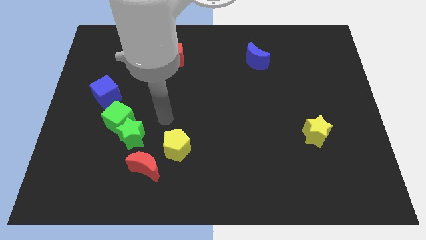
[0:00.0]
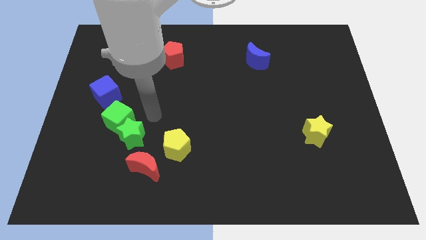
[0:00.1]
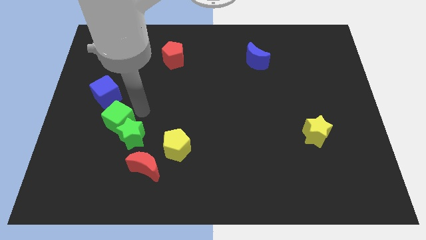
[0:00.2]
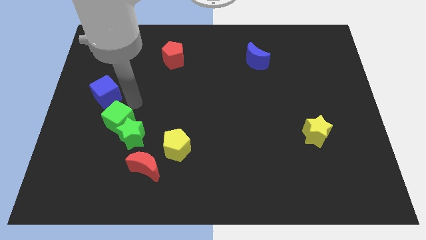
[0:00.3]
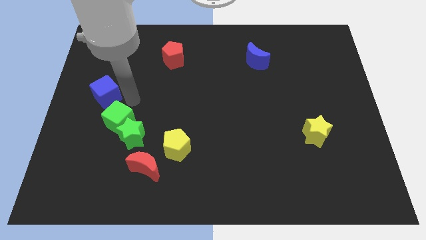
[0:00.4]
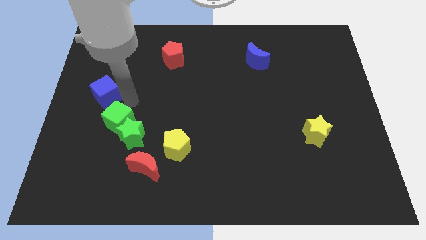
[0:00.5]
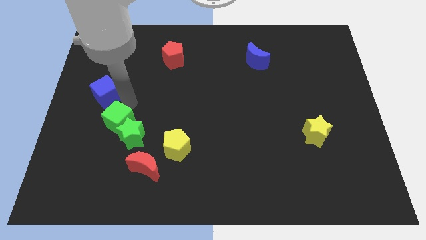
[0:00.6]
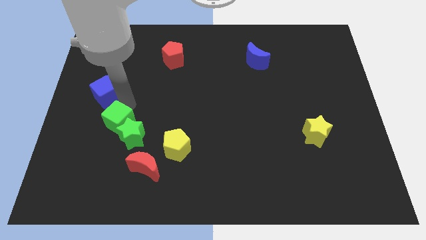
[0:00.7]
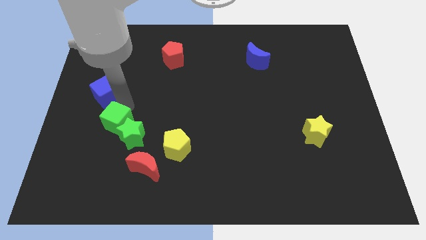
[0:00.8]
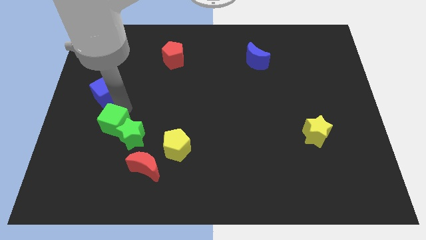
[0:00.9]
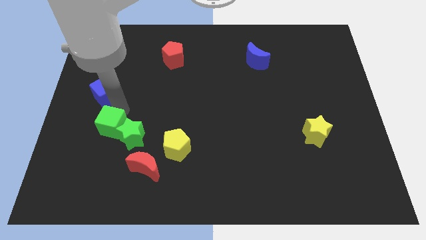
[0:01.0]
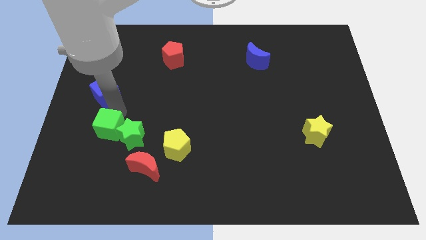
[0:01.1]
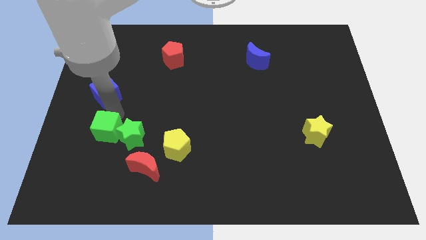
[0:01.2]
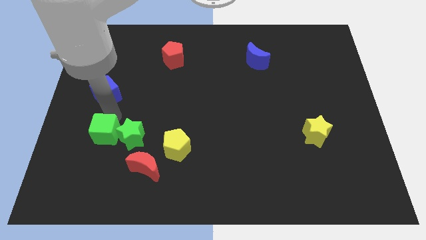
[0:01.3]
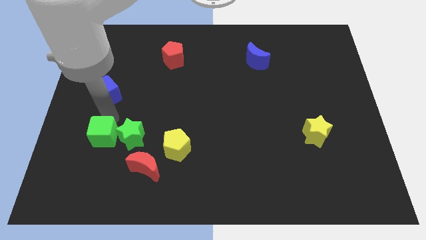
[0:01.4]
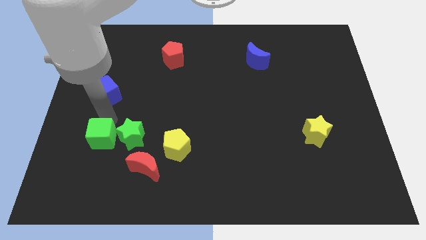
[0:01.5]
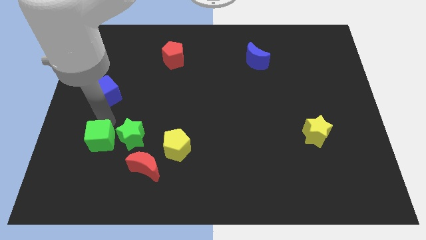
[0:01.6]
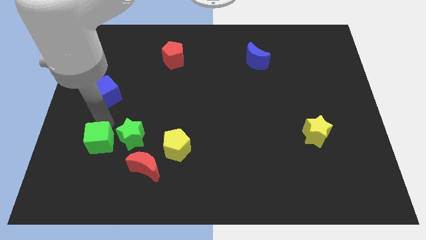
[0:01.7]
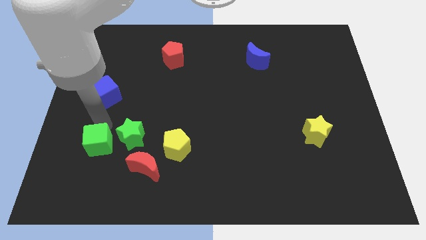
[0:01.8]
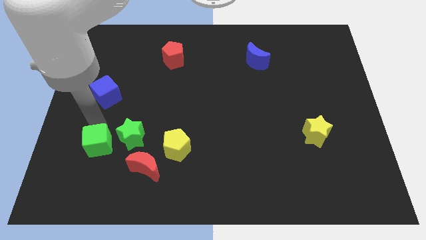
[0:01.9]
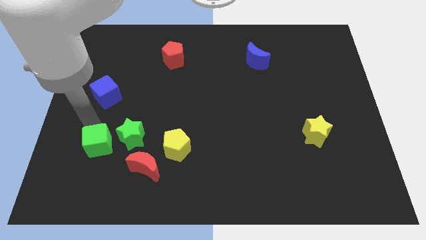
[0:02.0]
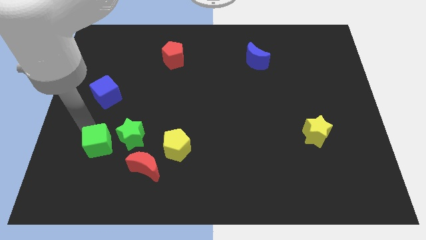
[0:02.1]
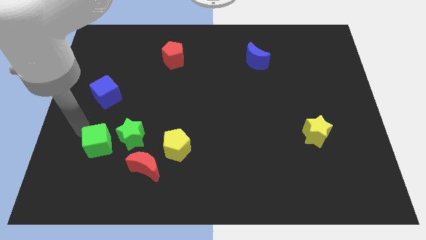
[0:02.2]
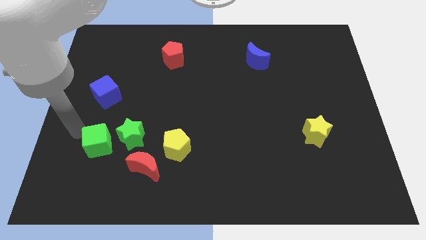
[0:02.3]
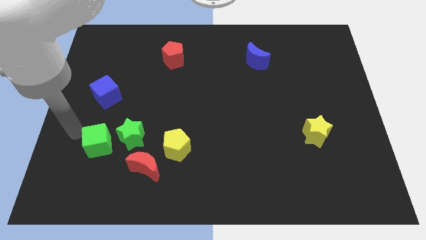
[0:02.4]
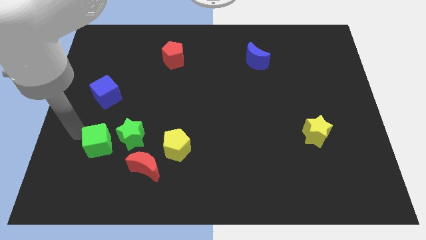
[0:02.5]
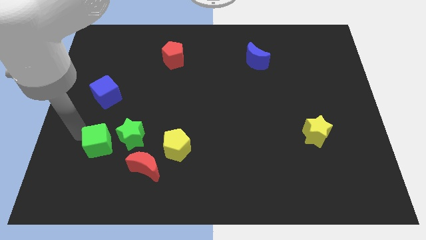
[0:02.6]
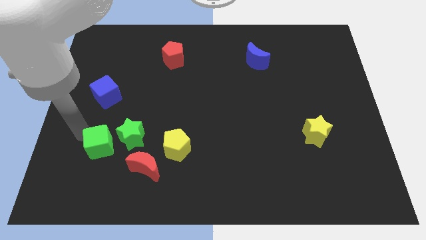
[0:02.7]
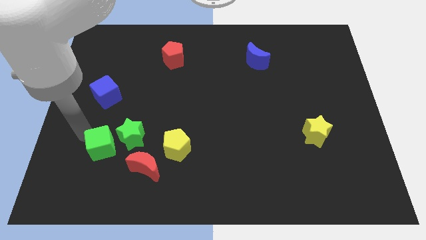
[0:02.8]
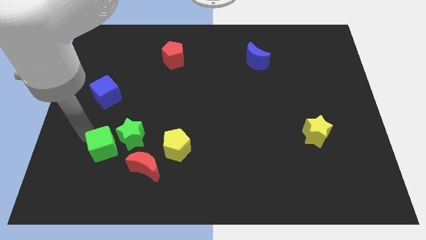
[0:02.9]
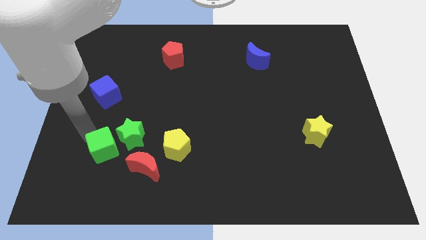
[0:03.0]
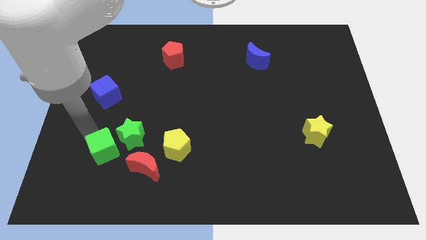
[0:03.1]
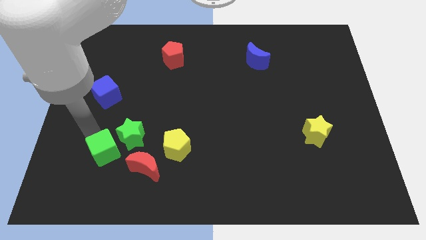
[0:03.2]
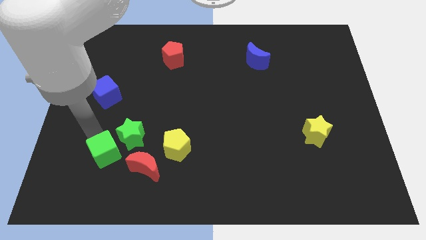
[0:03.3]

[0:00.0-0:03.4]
move the green cube away from the green star and blue cube

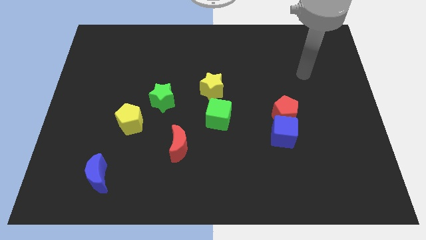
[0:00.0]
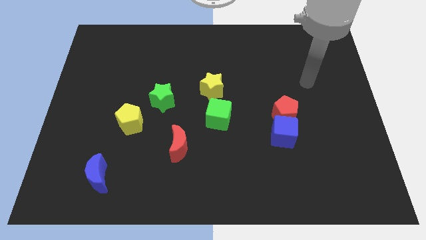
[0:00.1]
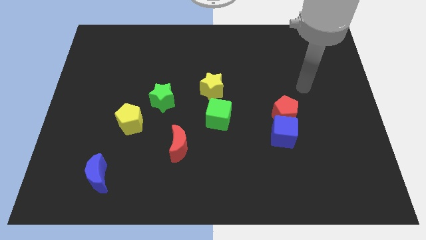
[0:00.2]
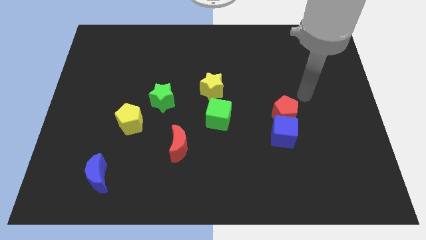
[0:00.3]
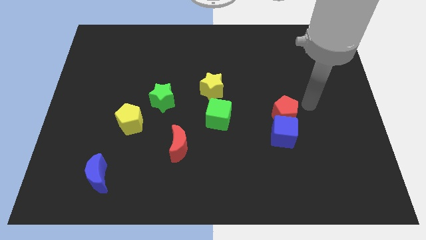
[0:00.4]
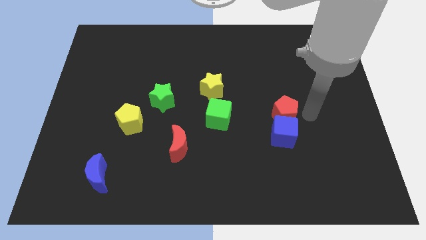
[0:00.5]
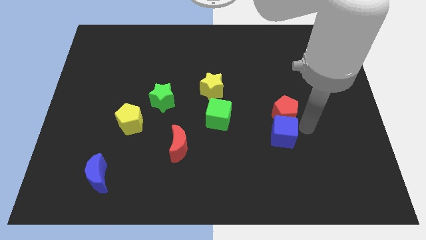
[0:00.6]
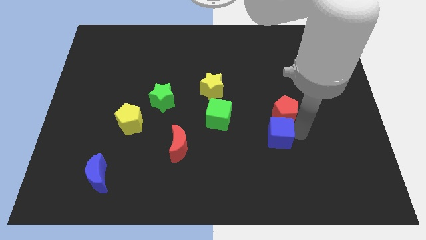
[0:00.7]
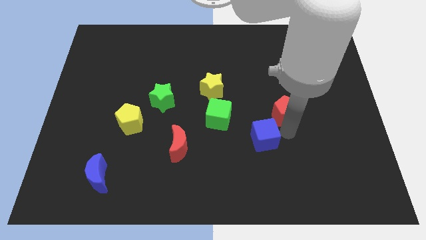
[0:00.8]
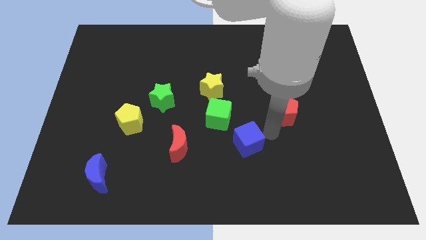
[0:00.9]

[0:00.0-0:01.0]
move the red pentagon away from the blue cube

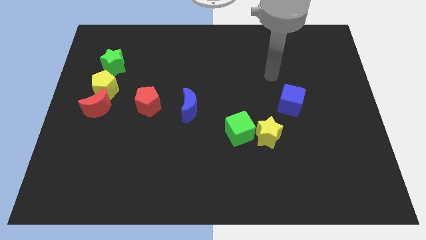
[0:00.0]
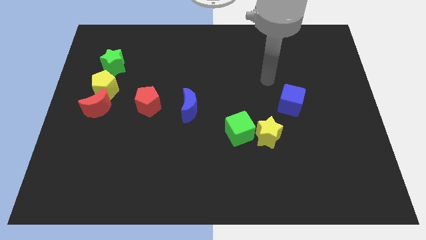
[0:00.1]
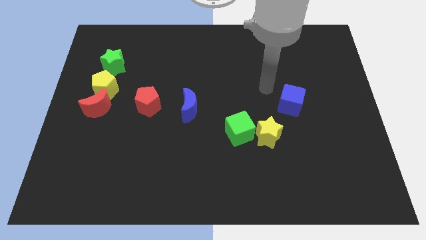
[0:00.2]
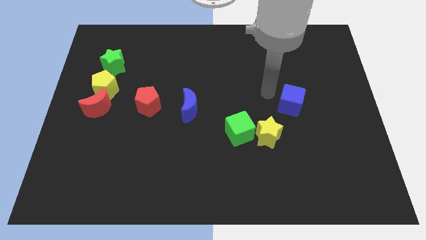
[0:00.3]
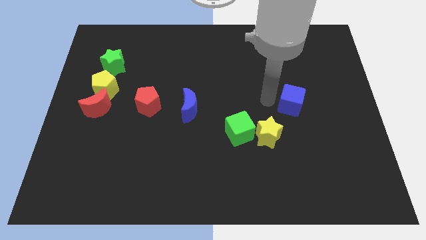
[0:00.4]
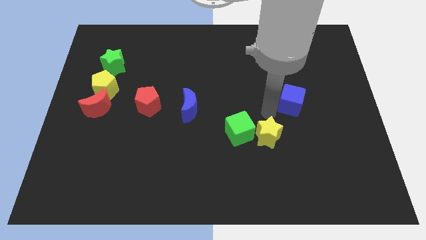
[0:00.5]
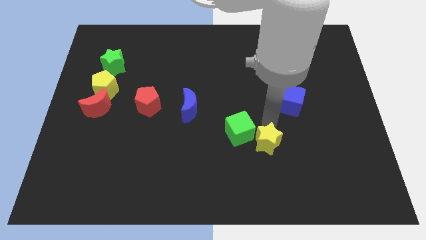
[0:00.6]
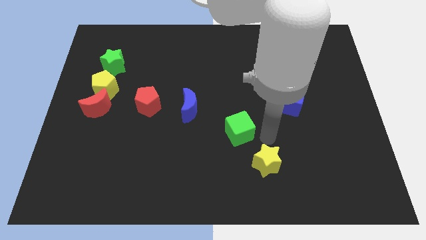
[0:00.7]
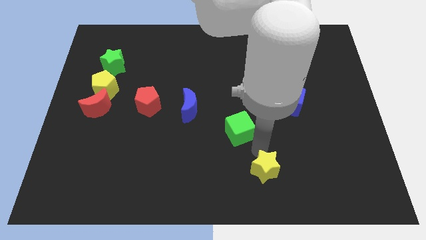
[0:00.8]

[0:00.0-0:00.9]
move the green cube away from the yellow star

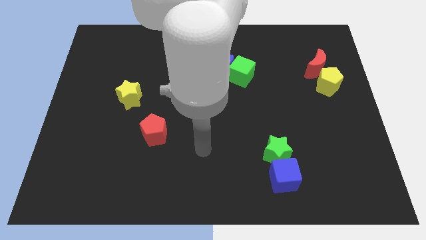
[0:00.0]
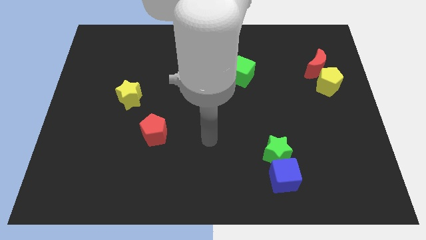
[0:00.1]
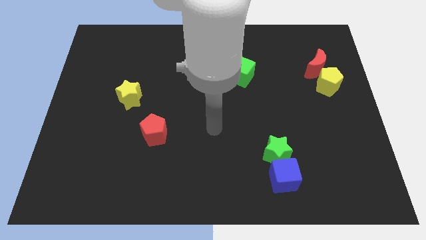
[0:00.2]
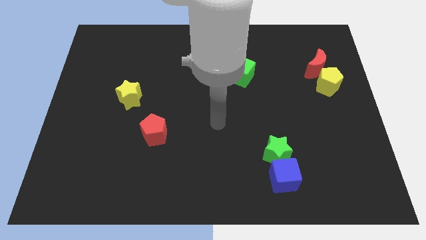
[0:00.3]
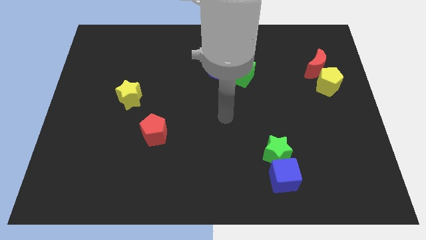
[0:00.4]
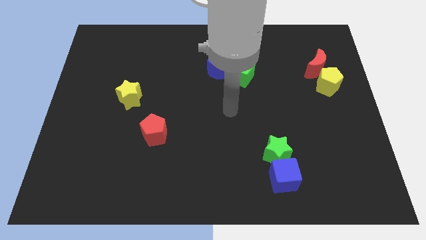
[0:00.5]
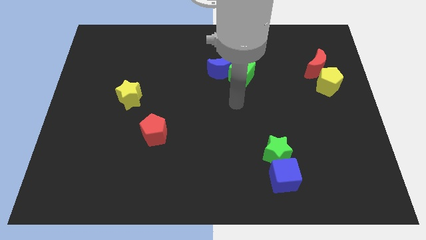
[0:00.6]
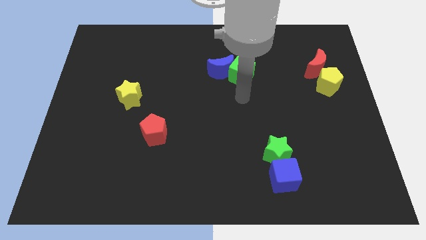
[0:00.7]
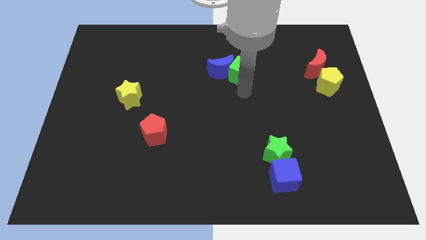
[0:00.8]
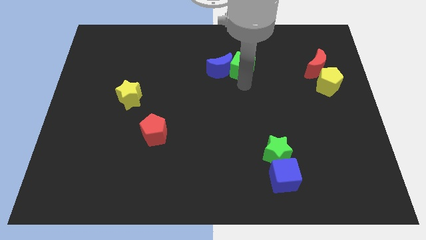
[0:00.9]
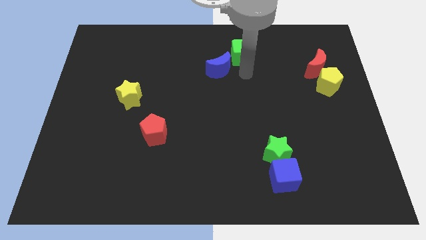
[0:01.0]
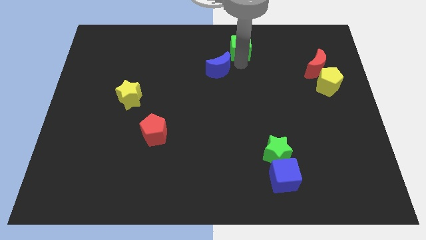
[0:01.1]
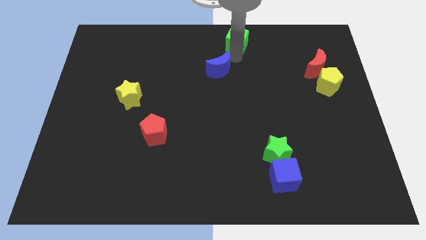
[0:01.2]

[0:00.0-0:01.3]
pull the blue moon apart from the green cube

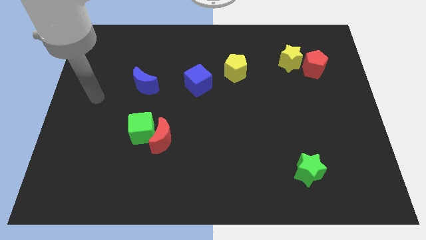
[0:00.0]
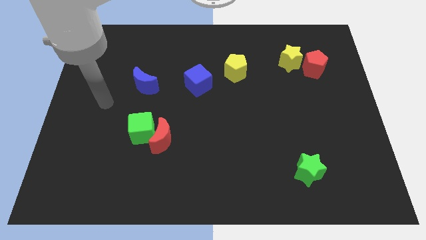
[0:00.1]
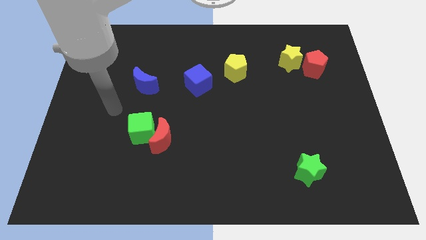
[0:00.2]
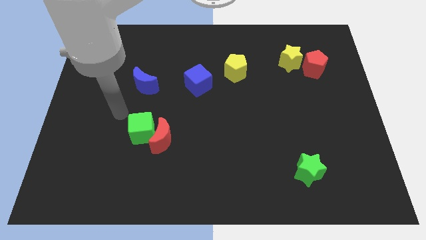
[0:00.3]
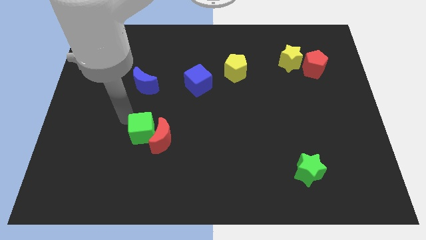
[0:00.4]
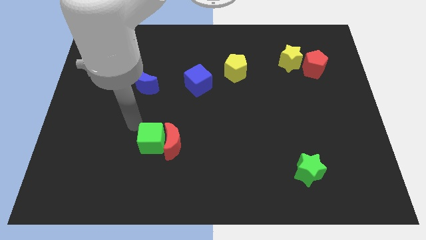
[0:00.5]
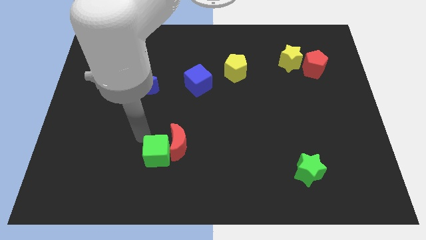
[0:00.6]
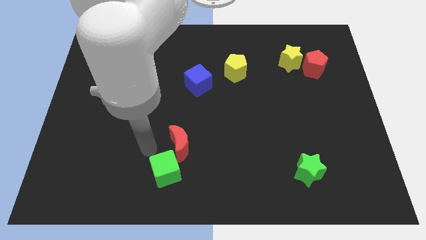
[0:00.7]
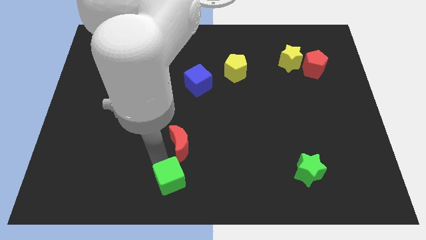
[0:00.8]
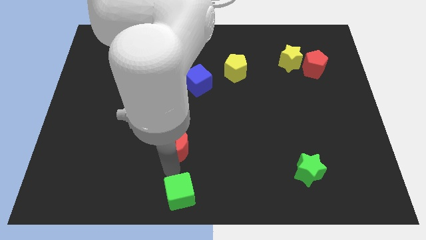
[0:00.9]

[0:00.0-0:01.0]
move the red moon away from the green cube

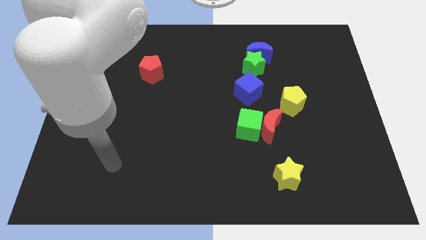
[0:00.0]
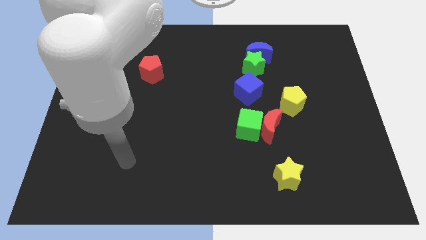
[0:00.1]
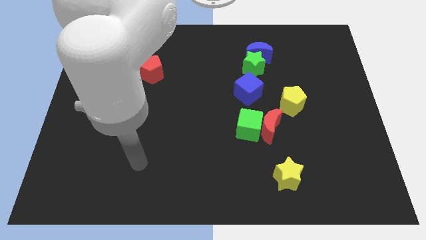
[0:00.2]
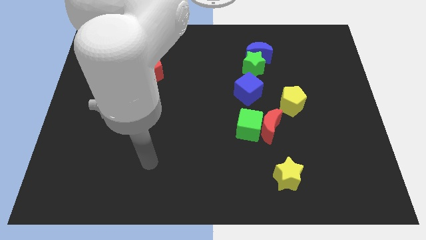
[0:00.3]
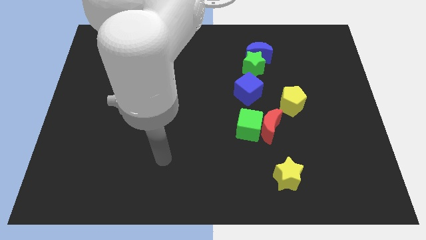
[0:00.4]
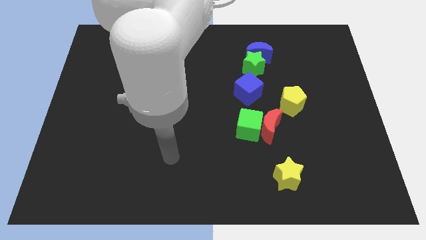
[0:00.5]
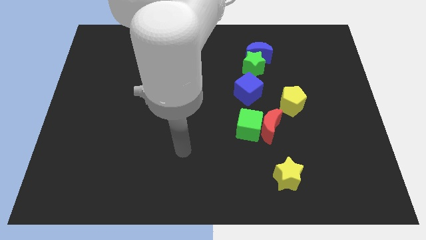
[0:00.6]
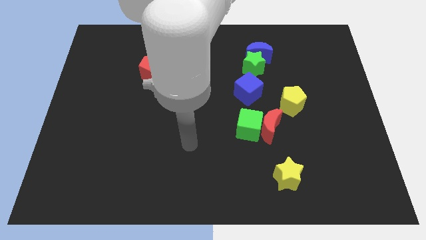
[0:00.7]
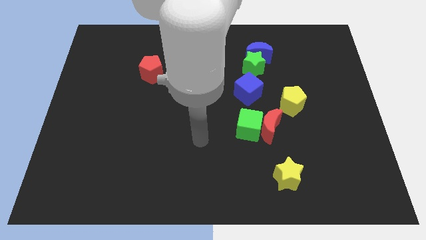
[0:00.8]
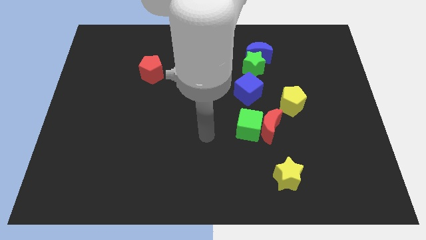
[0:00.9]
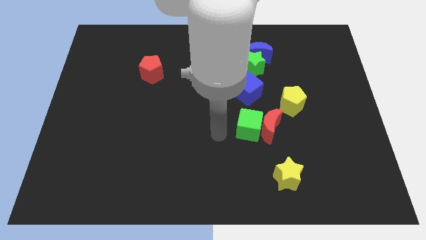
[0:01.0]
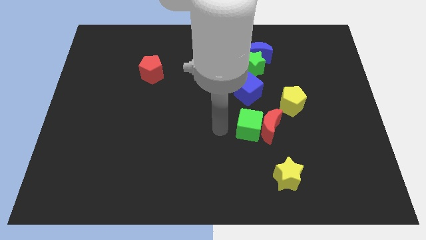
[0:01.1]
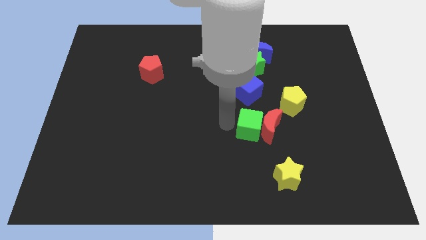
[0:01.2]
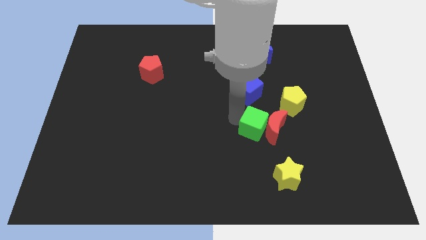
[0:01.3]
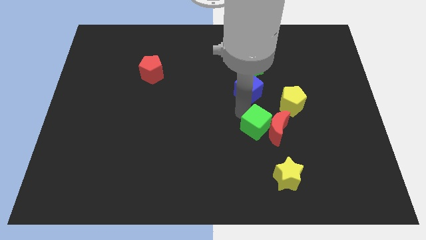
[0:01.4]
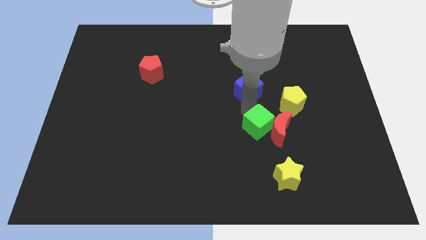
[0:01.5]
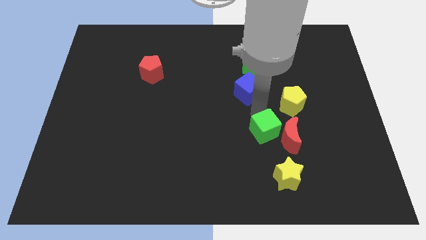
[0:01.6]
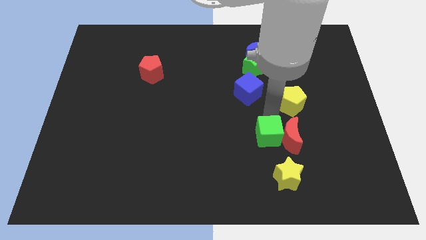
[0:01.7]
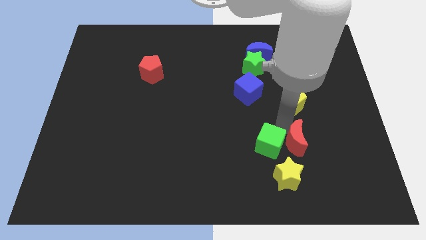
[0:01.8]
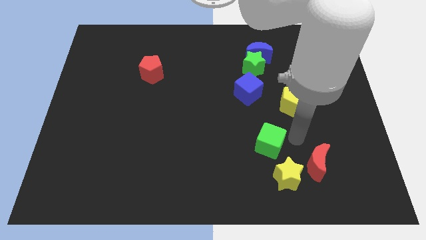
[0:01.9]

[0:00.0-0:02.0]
pull the green cube apart from the red moon
